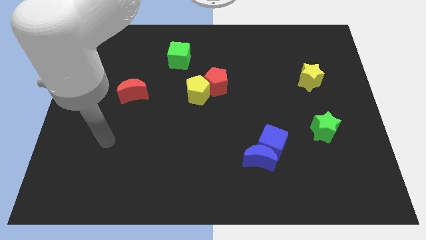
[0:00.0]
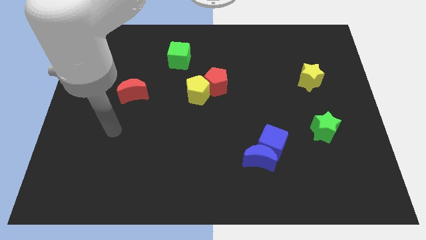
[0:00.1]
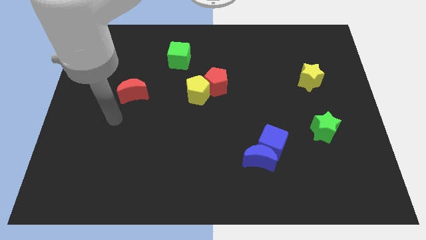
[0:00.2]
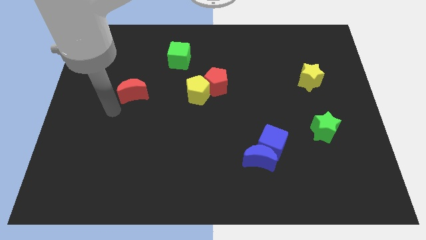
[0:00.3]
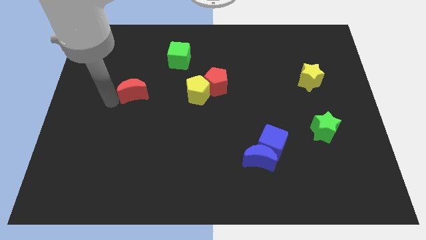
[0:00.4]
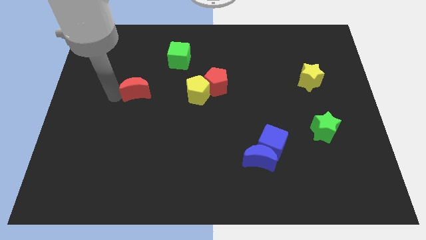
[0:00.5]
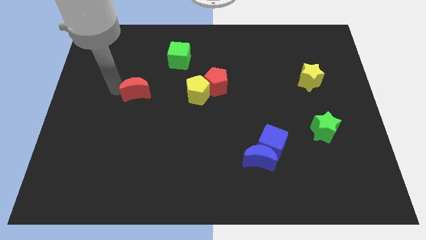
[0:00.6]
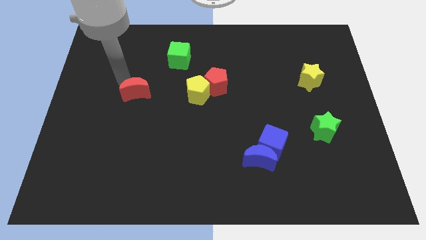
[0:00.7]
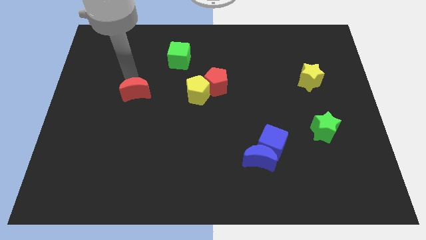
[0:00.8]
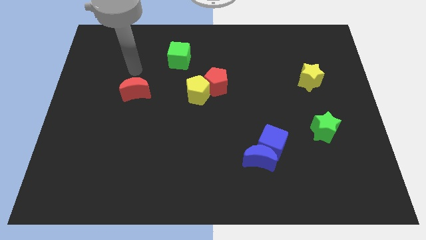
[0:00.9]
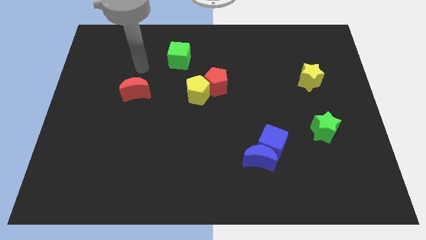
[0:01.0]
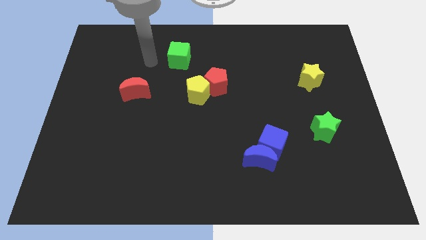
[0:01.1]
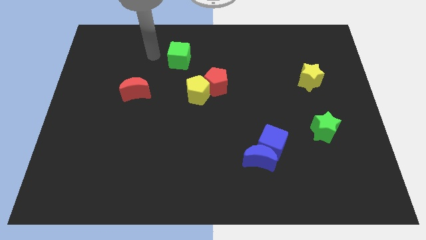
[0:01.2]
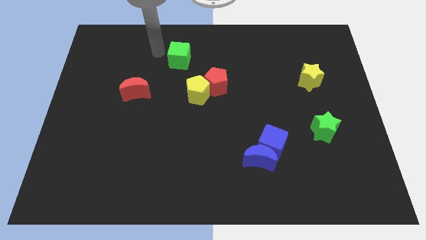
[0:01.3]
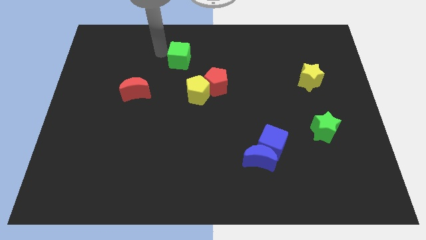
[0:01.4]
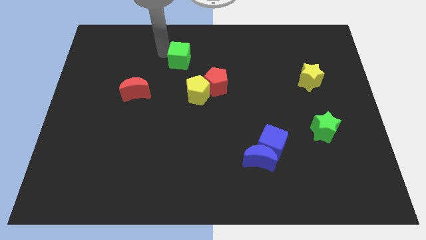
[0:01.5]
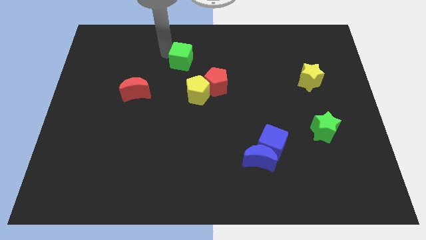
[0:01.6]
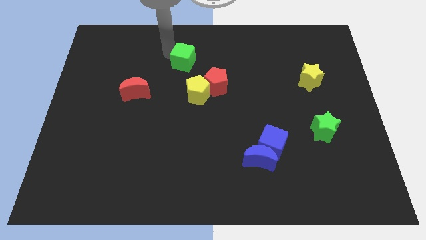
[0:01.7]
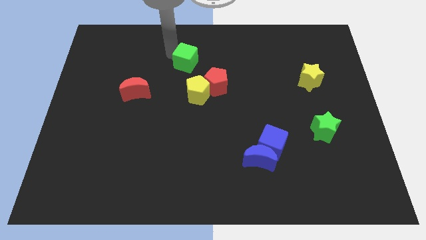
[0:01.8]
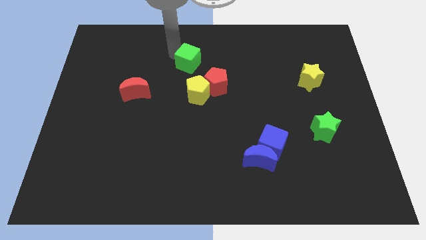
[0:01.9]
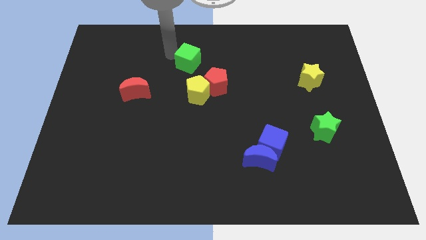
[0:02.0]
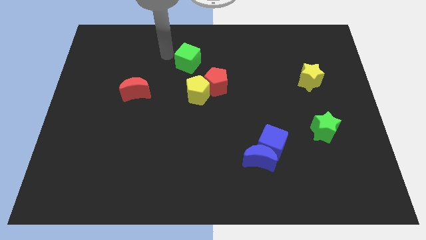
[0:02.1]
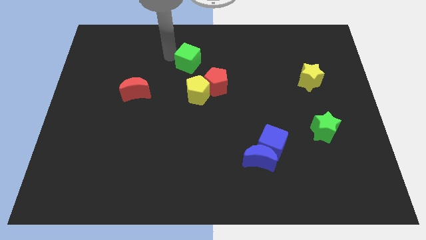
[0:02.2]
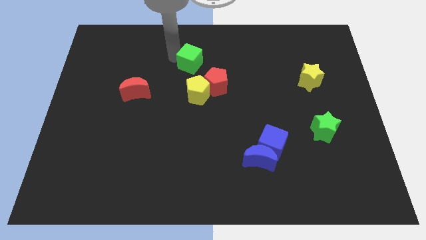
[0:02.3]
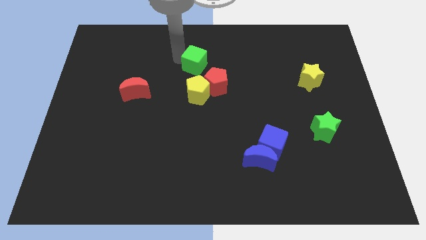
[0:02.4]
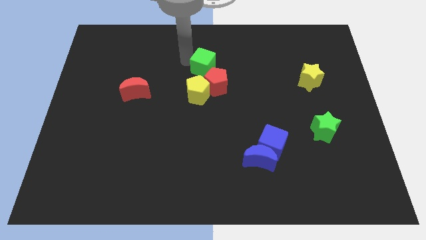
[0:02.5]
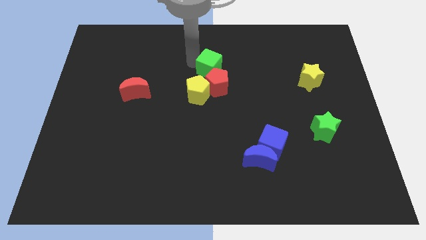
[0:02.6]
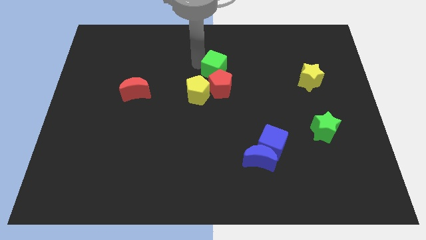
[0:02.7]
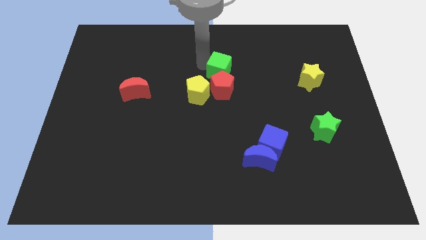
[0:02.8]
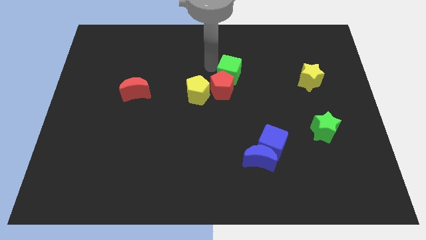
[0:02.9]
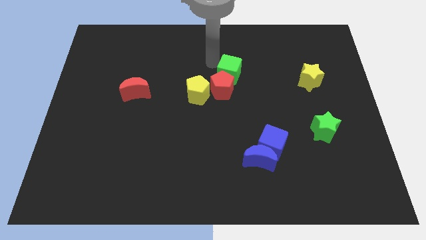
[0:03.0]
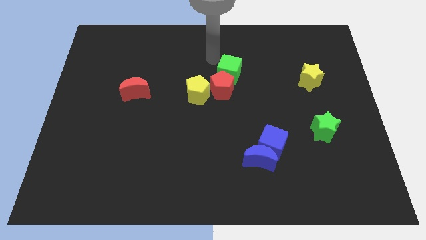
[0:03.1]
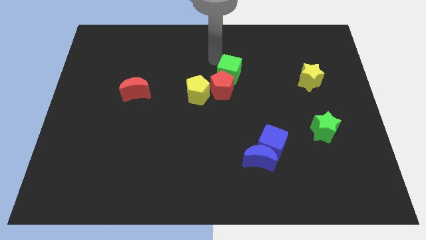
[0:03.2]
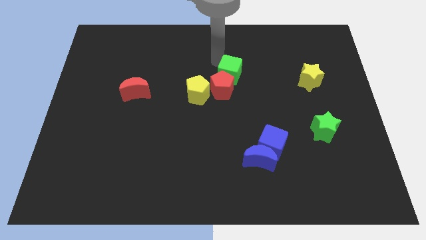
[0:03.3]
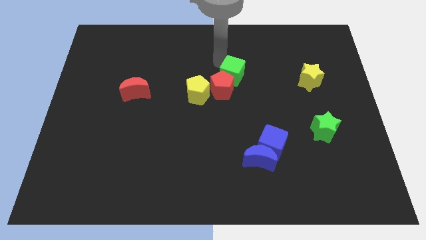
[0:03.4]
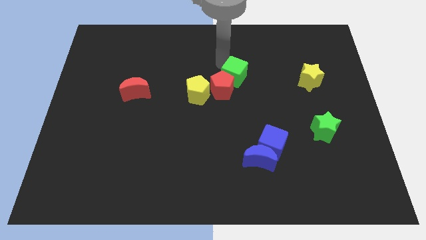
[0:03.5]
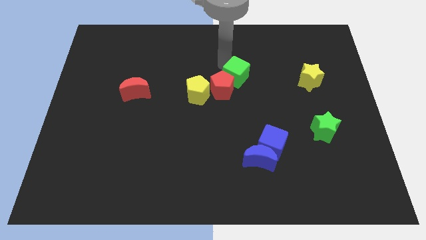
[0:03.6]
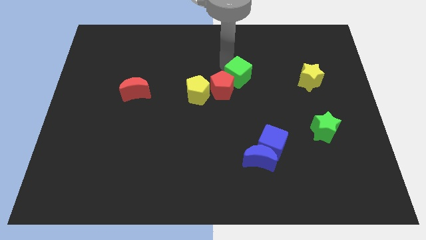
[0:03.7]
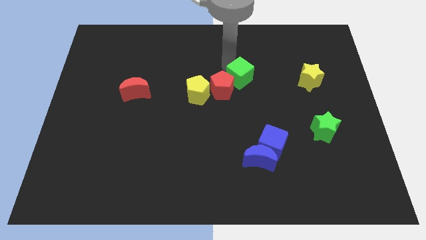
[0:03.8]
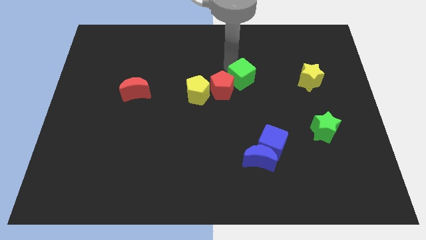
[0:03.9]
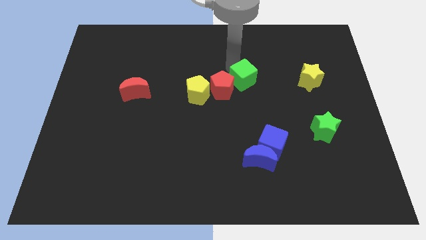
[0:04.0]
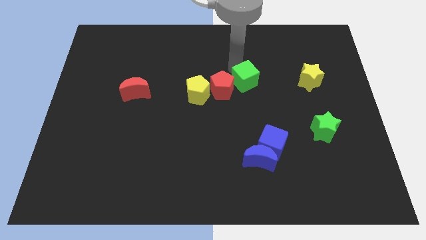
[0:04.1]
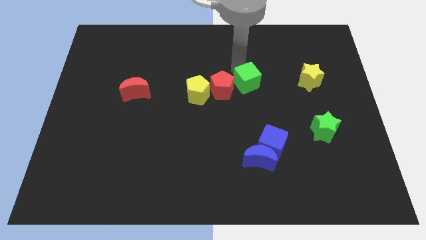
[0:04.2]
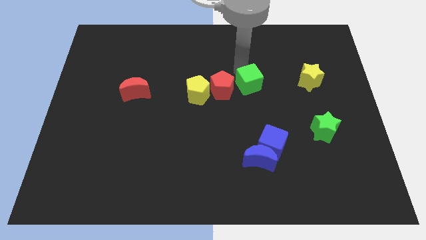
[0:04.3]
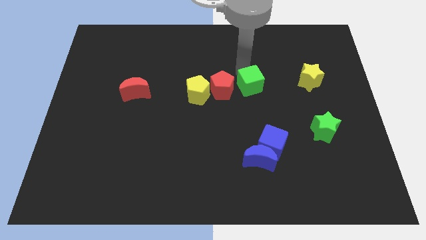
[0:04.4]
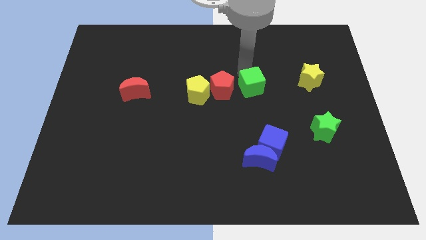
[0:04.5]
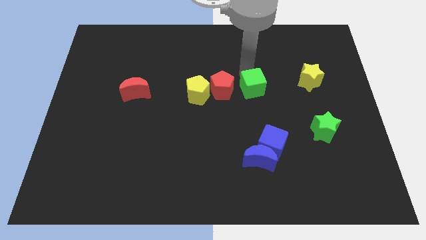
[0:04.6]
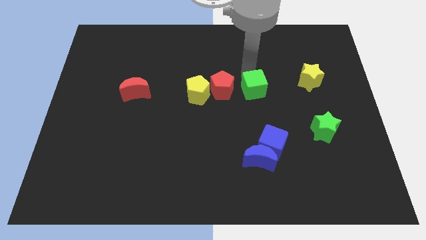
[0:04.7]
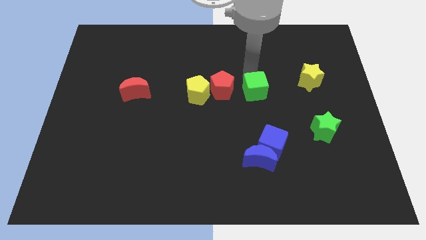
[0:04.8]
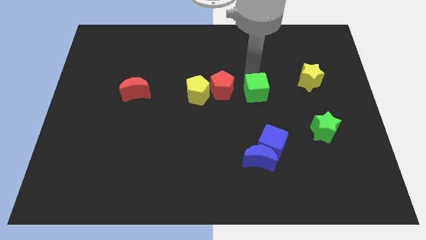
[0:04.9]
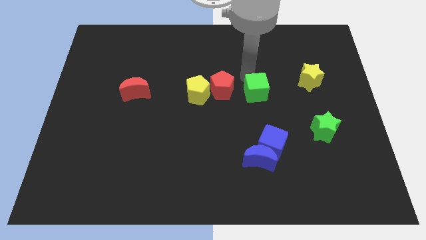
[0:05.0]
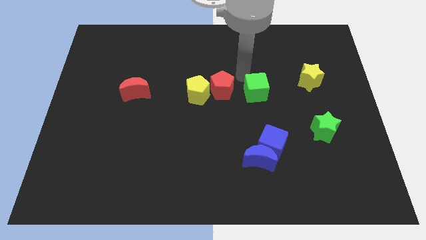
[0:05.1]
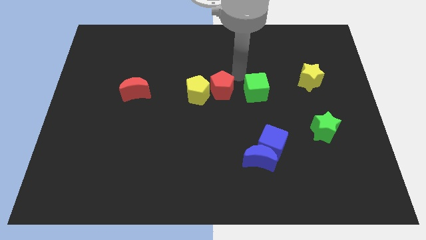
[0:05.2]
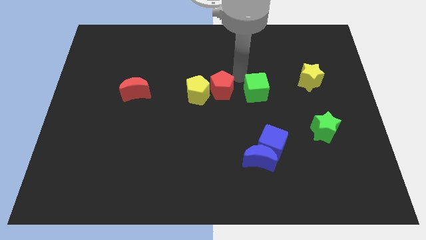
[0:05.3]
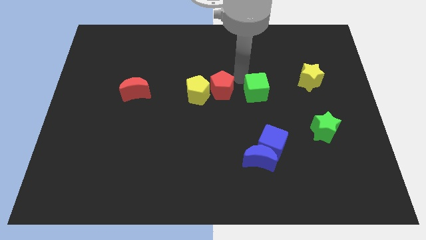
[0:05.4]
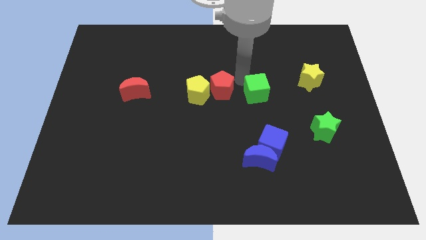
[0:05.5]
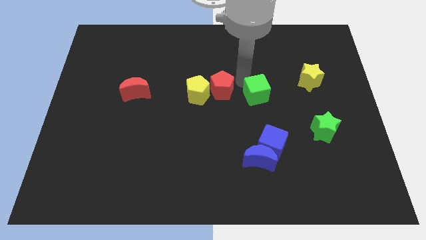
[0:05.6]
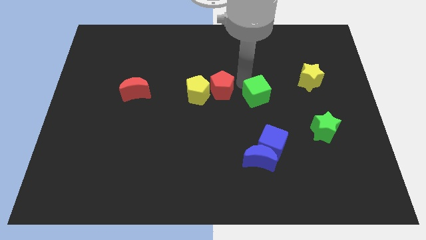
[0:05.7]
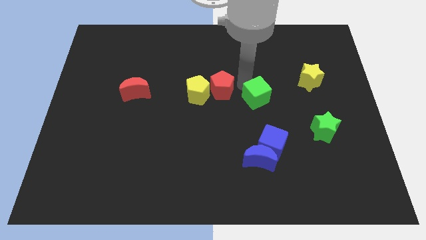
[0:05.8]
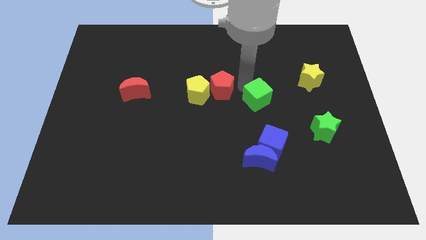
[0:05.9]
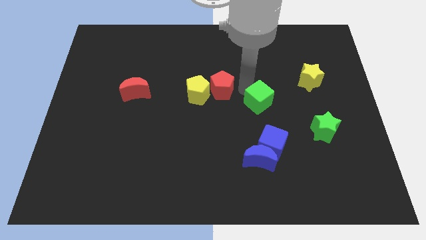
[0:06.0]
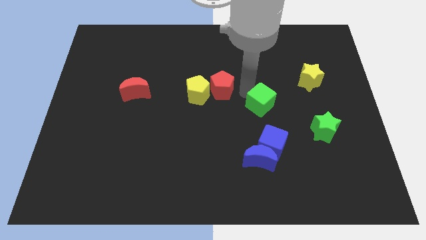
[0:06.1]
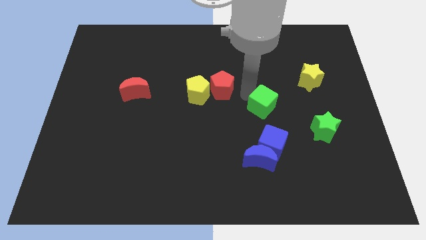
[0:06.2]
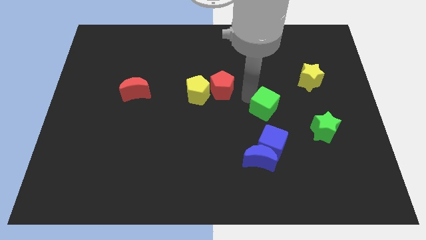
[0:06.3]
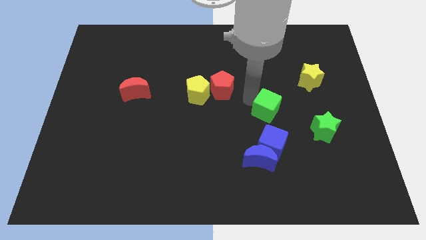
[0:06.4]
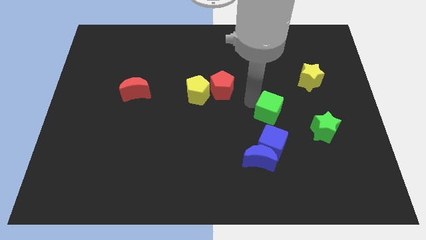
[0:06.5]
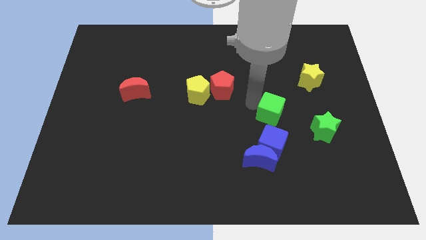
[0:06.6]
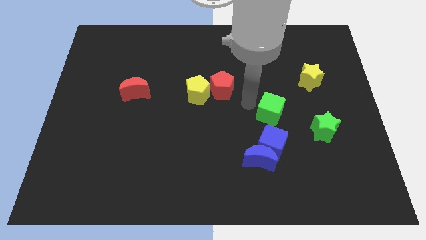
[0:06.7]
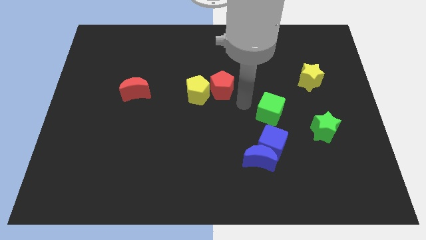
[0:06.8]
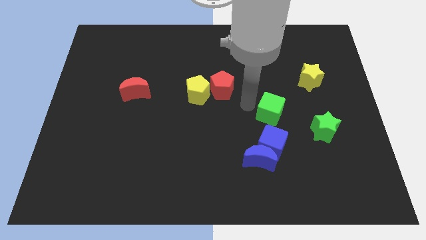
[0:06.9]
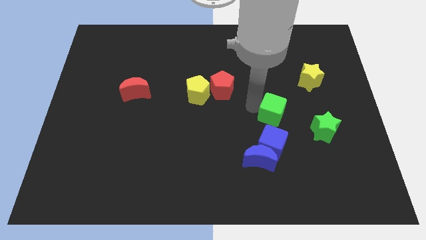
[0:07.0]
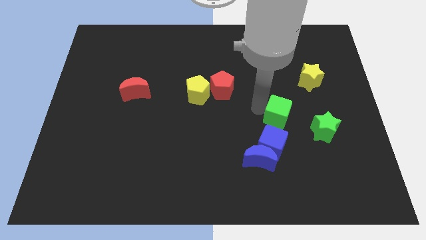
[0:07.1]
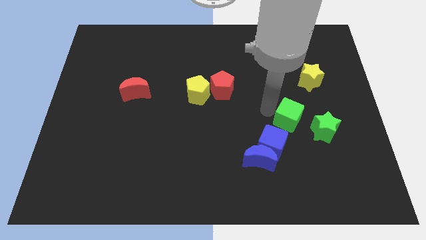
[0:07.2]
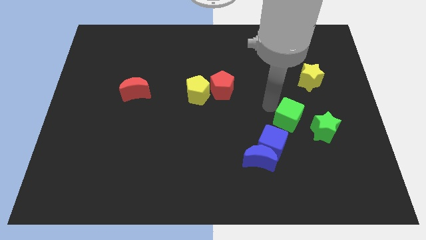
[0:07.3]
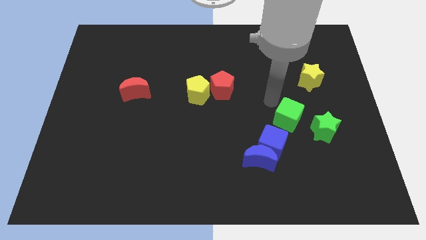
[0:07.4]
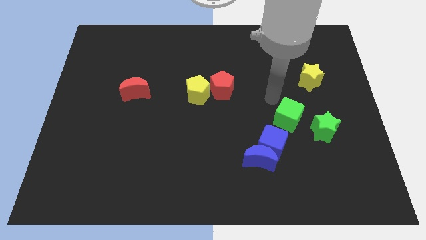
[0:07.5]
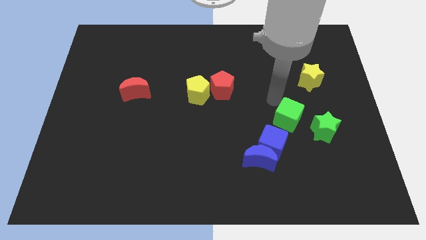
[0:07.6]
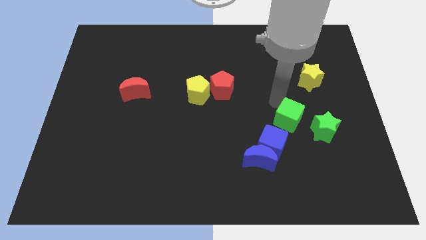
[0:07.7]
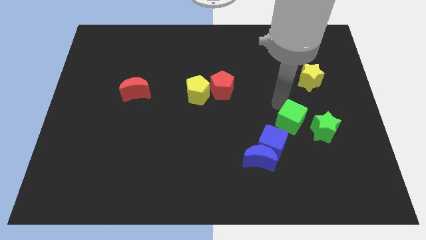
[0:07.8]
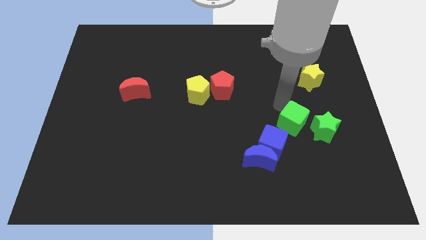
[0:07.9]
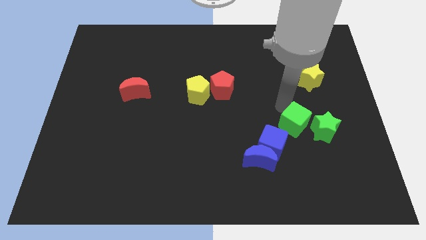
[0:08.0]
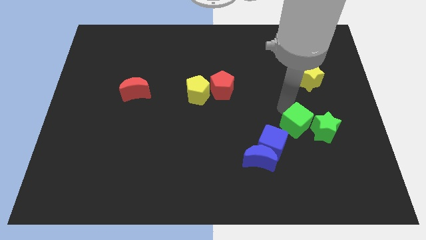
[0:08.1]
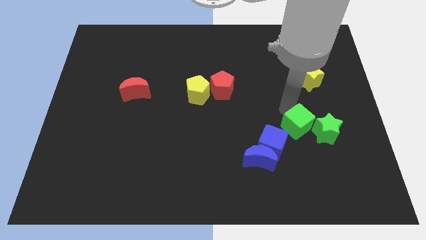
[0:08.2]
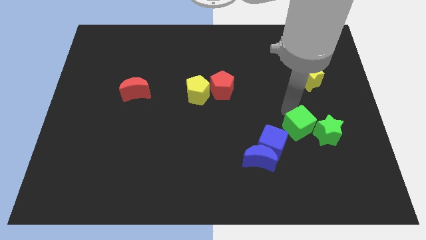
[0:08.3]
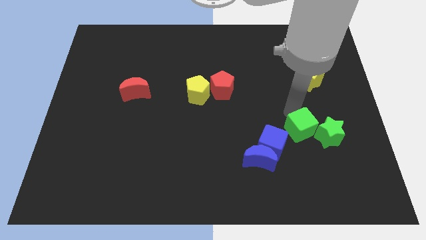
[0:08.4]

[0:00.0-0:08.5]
put the green cube to the right of the blue cube
